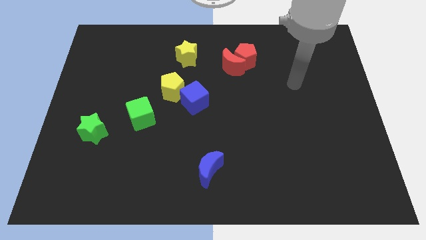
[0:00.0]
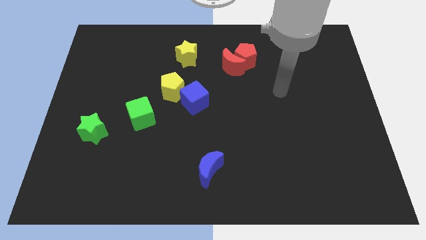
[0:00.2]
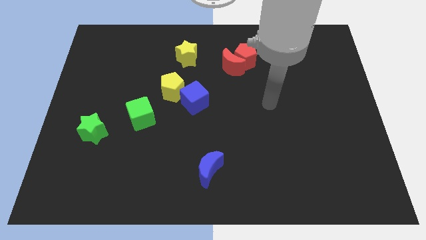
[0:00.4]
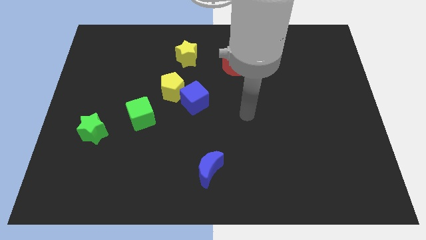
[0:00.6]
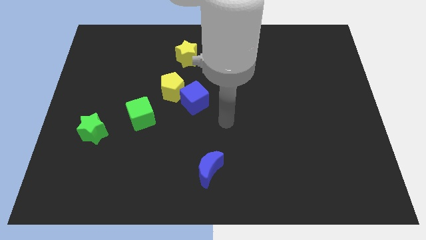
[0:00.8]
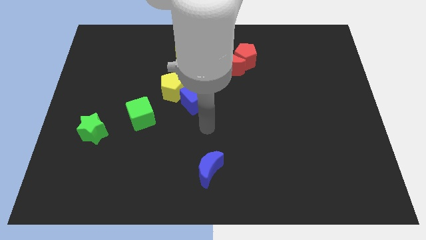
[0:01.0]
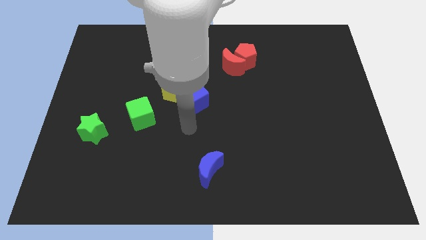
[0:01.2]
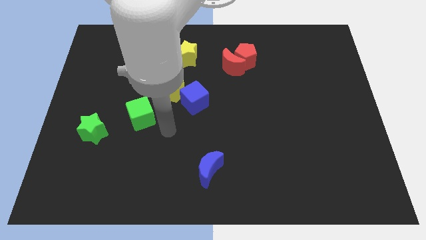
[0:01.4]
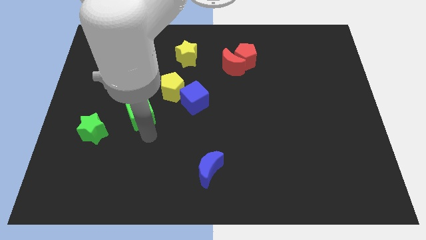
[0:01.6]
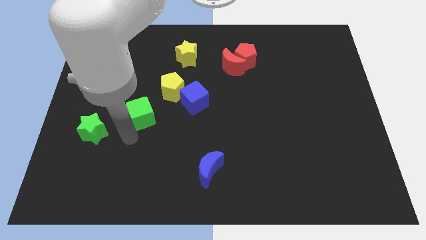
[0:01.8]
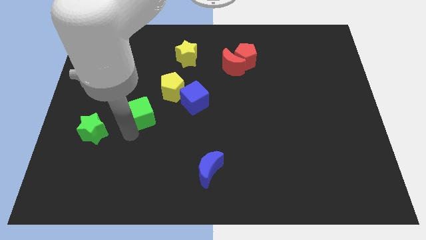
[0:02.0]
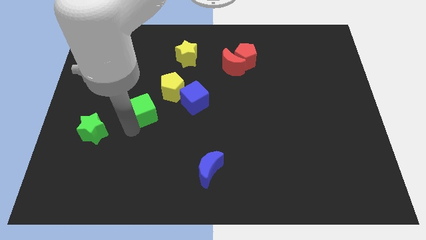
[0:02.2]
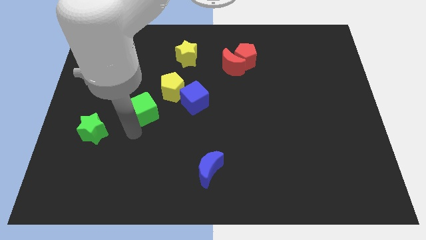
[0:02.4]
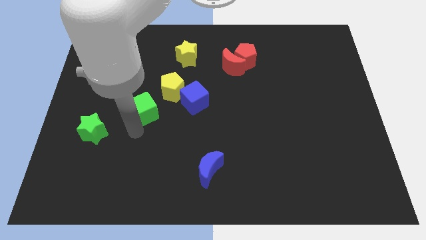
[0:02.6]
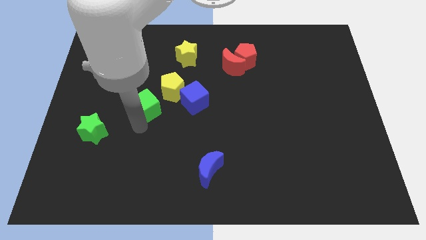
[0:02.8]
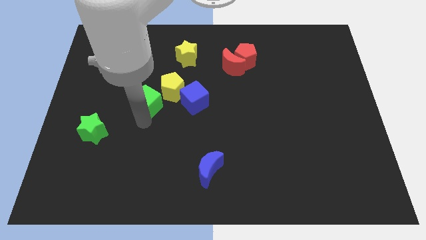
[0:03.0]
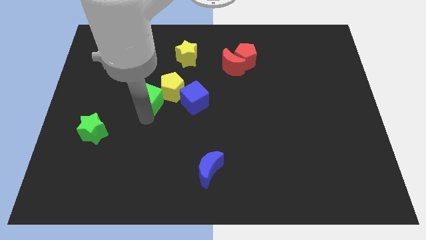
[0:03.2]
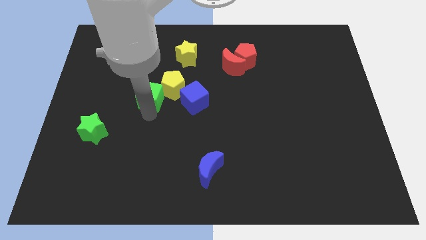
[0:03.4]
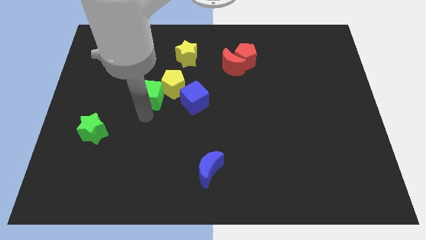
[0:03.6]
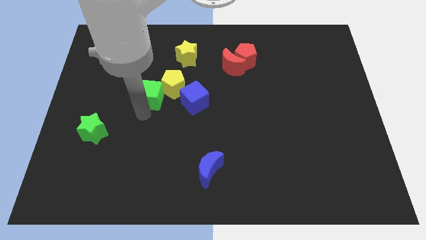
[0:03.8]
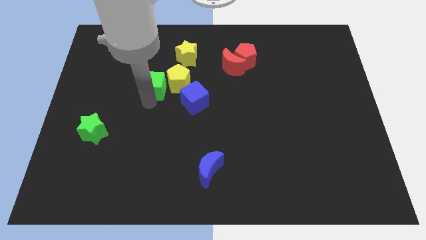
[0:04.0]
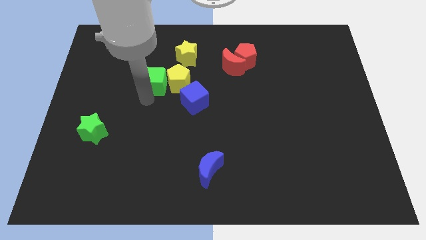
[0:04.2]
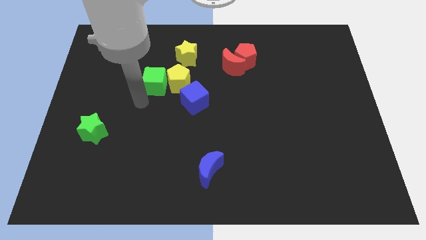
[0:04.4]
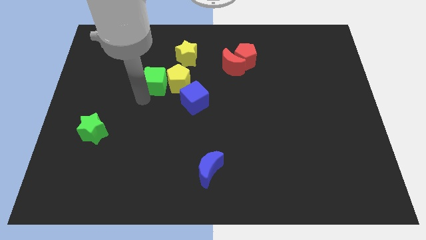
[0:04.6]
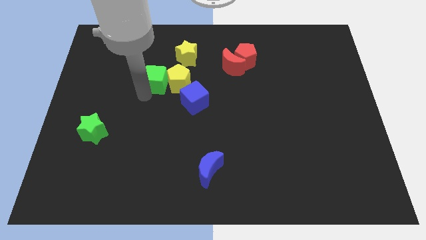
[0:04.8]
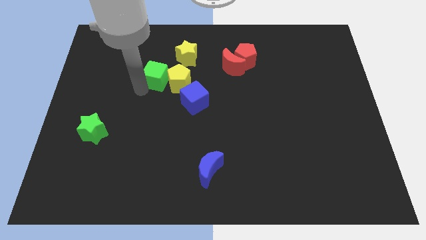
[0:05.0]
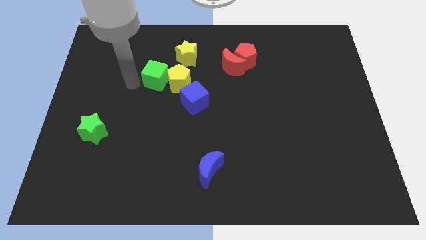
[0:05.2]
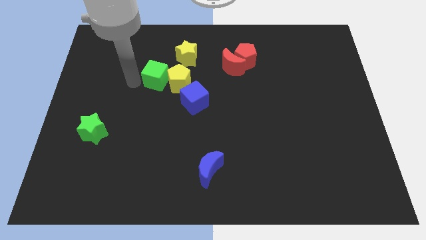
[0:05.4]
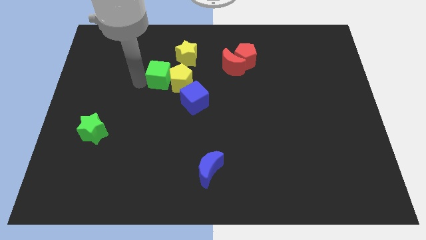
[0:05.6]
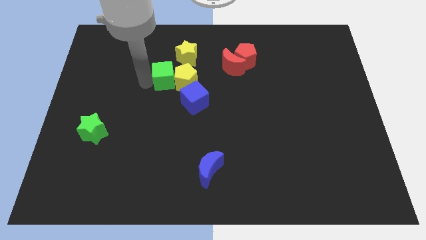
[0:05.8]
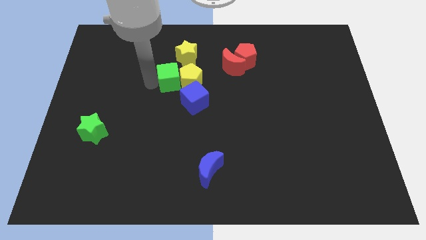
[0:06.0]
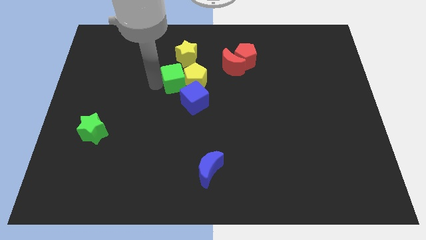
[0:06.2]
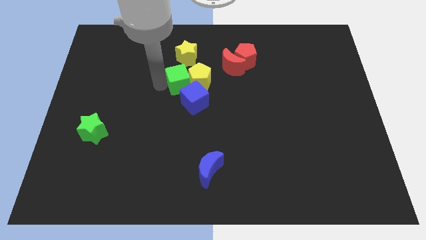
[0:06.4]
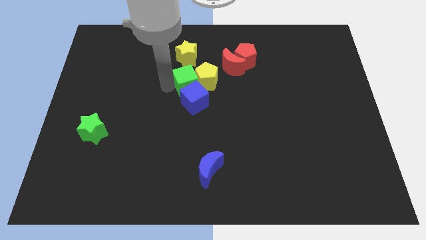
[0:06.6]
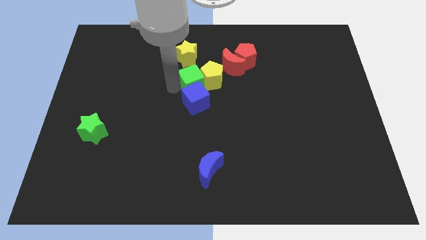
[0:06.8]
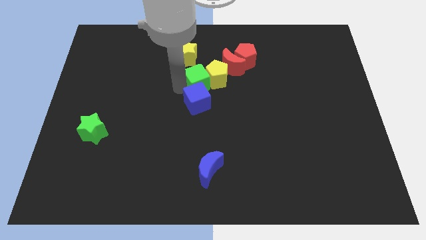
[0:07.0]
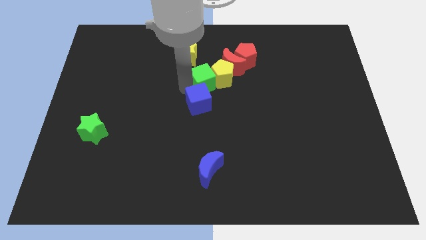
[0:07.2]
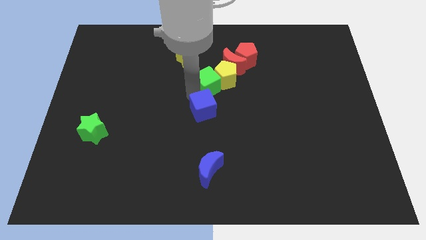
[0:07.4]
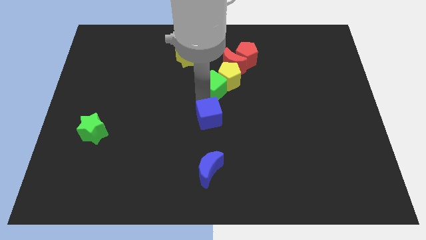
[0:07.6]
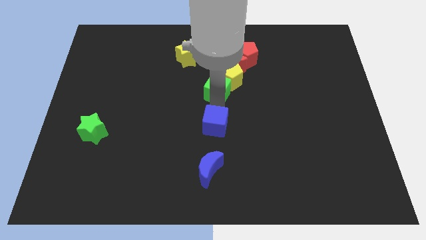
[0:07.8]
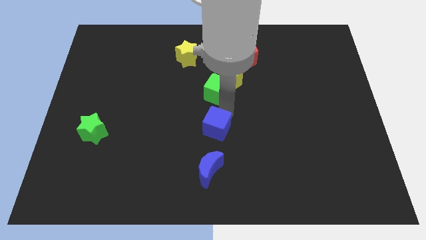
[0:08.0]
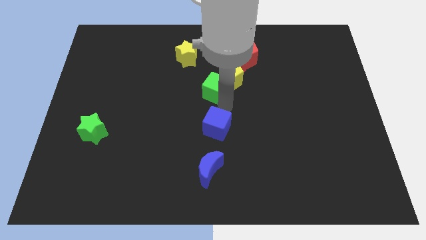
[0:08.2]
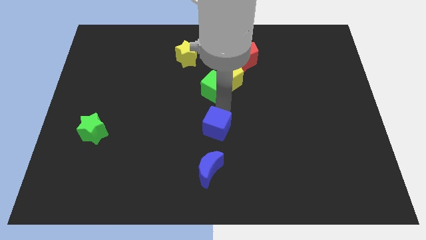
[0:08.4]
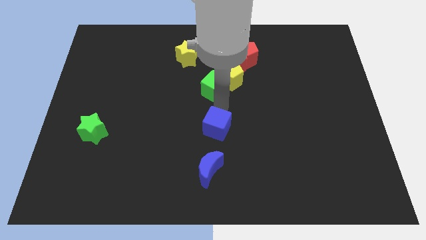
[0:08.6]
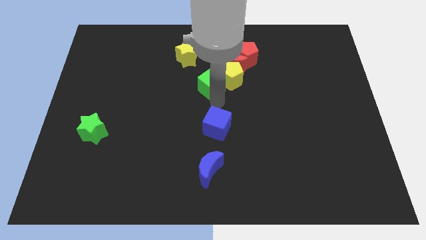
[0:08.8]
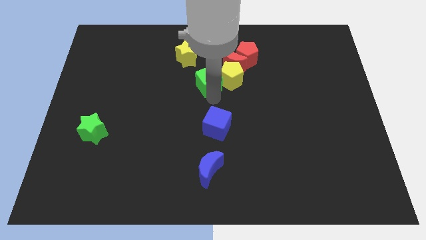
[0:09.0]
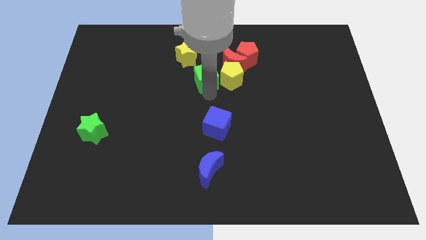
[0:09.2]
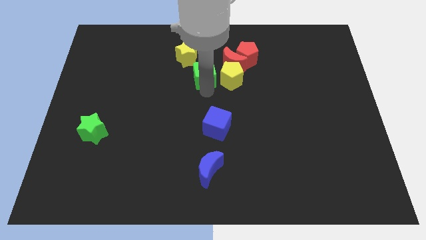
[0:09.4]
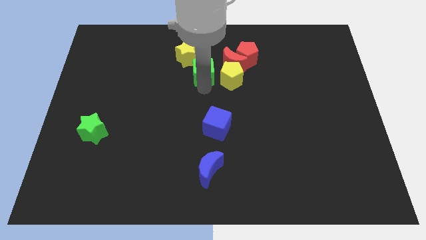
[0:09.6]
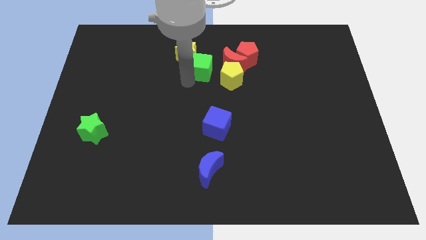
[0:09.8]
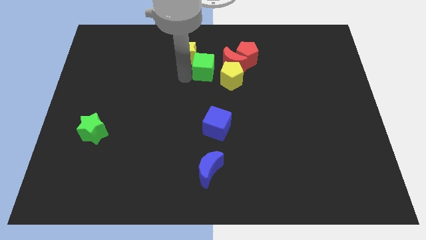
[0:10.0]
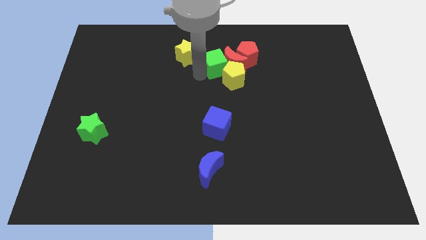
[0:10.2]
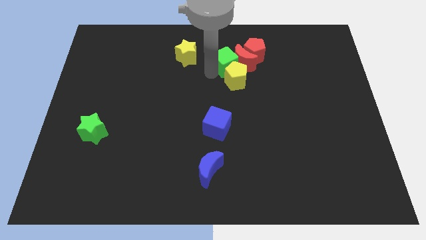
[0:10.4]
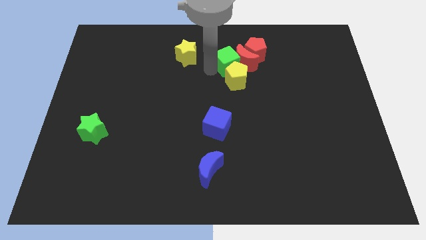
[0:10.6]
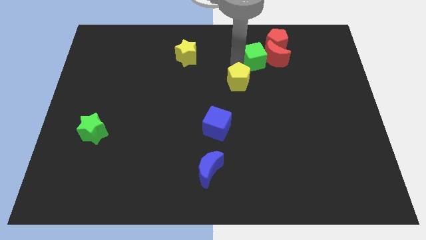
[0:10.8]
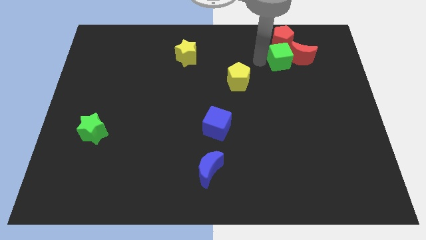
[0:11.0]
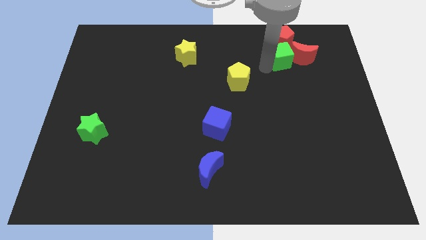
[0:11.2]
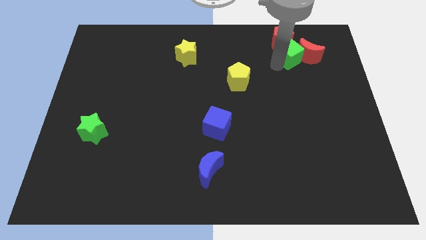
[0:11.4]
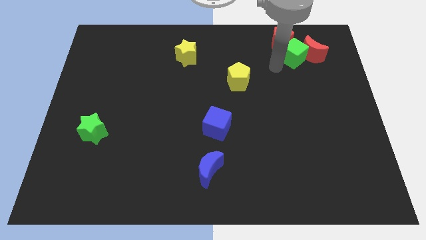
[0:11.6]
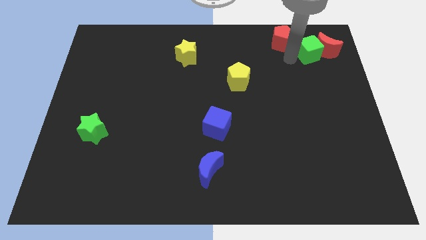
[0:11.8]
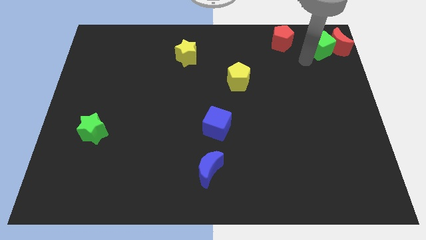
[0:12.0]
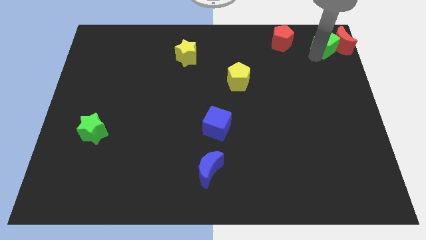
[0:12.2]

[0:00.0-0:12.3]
slide the green cube to the upper right corner
